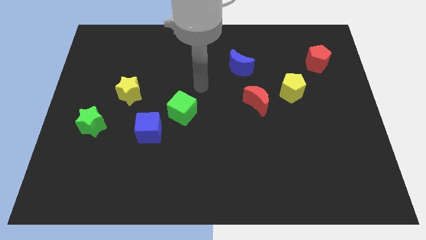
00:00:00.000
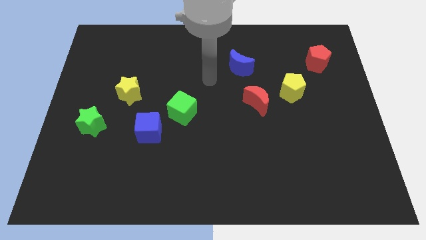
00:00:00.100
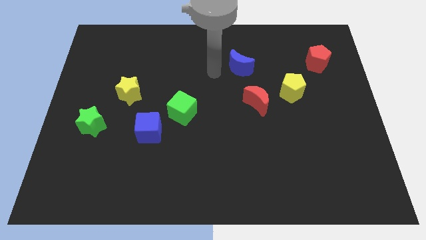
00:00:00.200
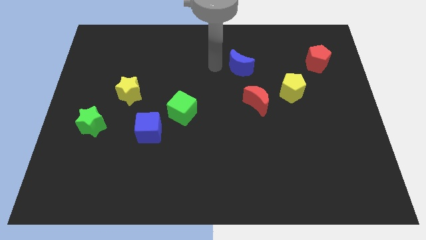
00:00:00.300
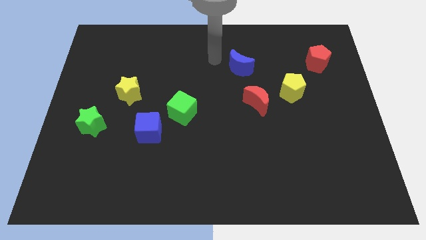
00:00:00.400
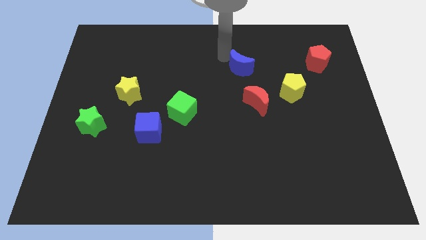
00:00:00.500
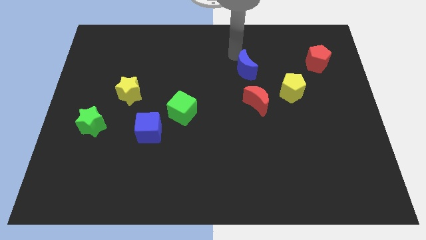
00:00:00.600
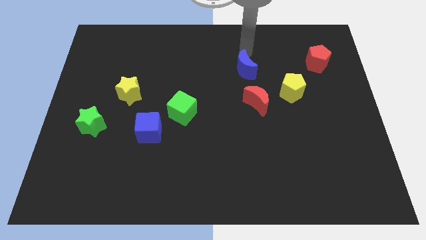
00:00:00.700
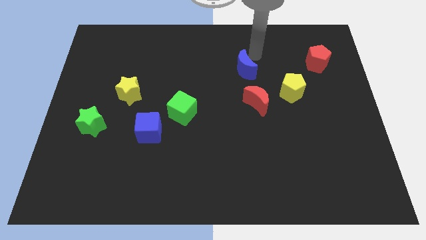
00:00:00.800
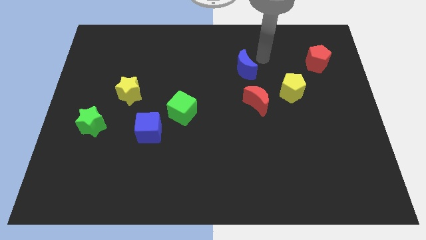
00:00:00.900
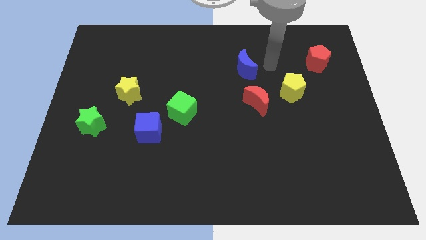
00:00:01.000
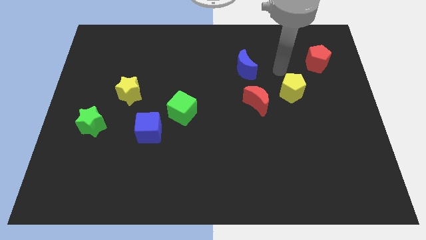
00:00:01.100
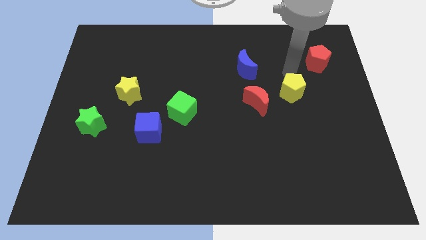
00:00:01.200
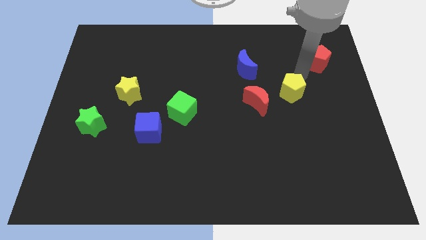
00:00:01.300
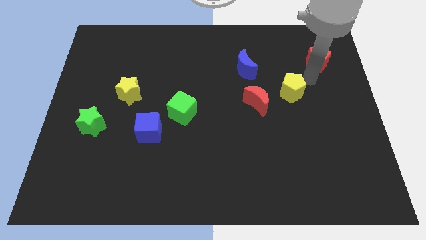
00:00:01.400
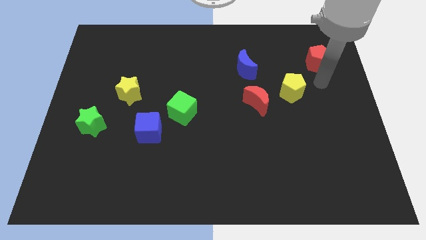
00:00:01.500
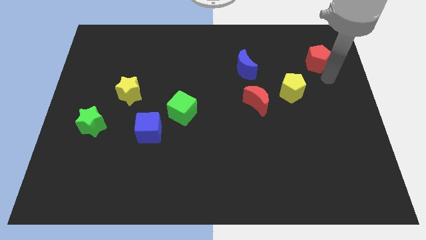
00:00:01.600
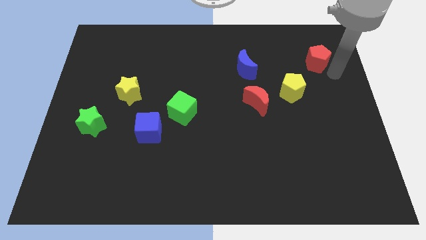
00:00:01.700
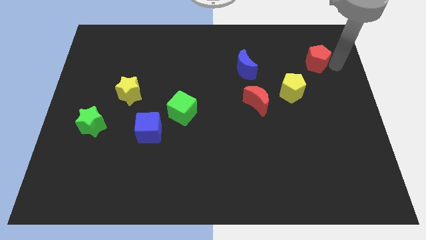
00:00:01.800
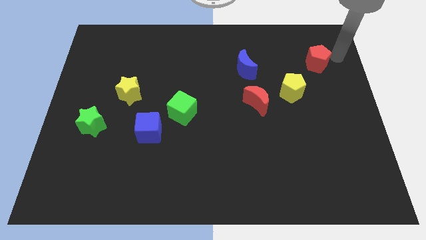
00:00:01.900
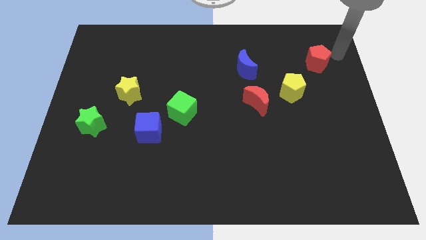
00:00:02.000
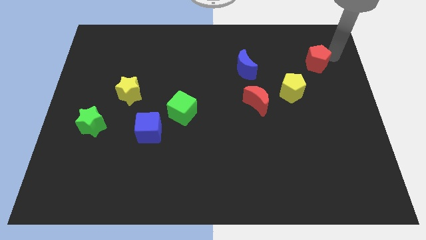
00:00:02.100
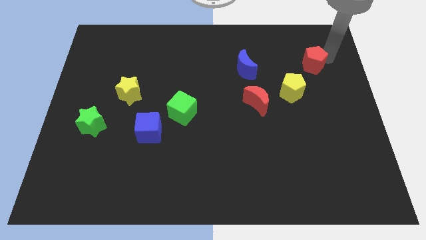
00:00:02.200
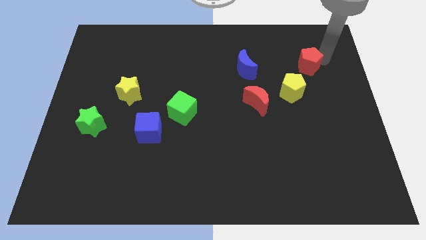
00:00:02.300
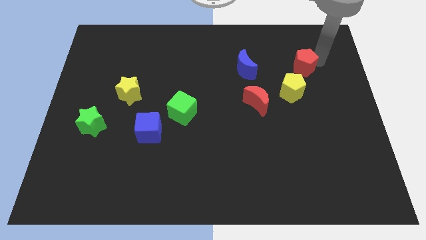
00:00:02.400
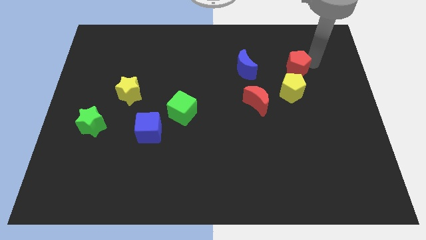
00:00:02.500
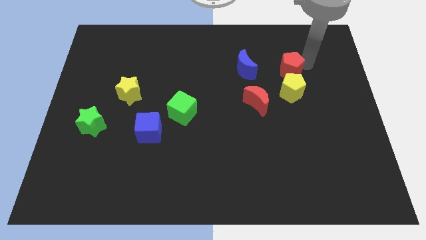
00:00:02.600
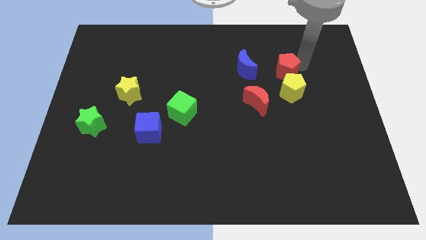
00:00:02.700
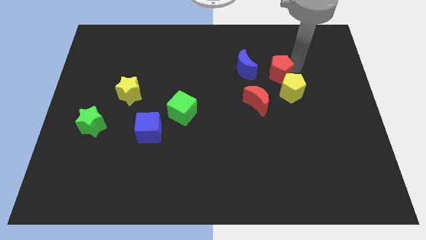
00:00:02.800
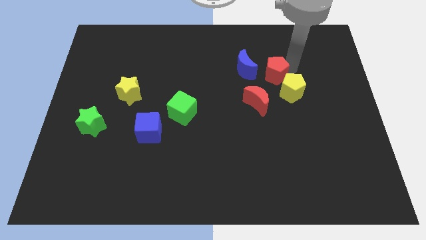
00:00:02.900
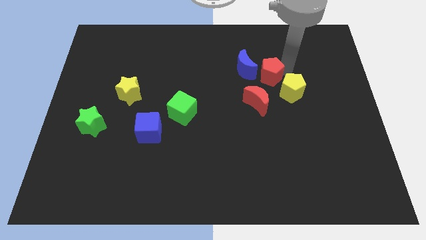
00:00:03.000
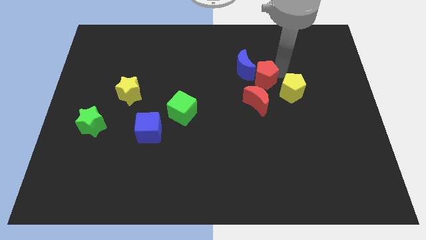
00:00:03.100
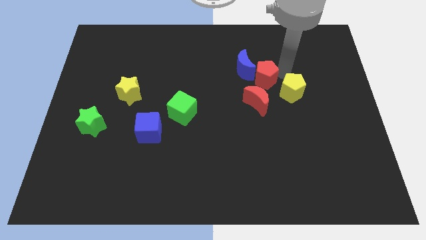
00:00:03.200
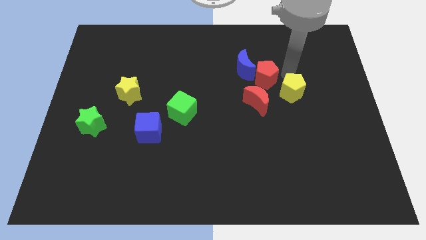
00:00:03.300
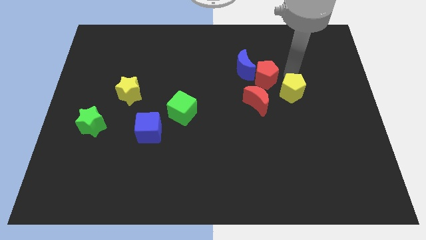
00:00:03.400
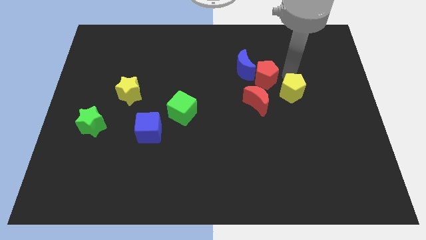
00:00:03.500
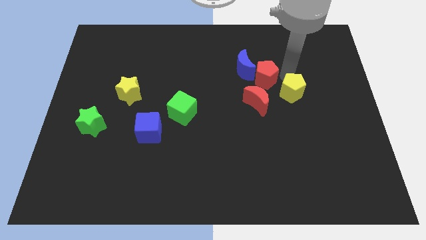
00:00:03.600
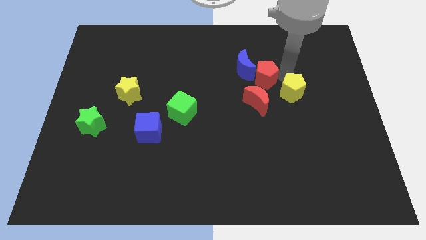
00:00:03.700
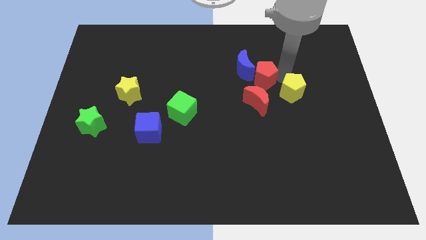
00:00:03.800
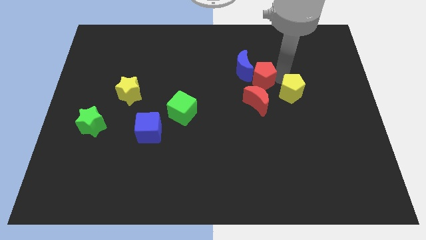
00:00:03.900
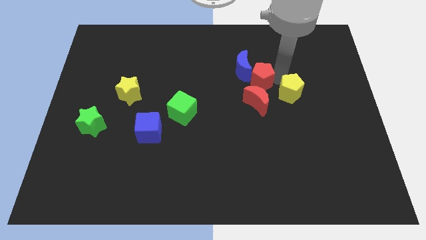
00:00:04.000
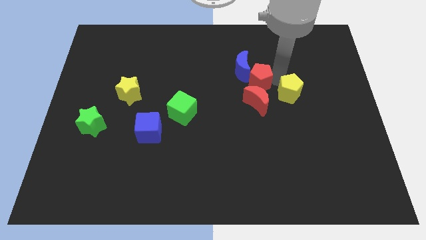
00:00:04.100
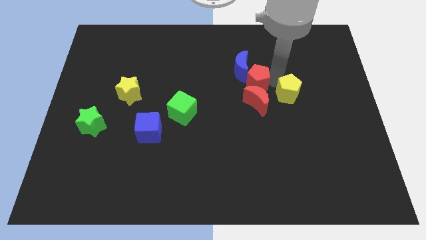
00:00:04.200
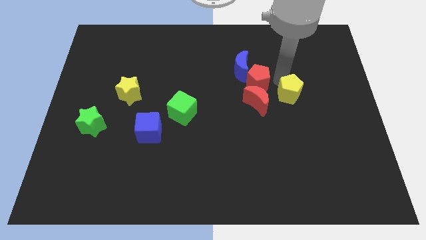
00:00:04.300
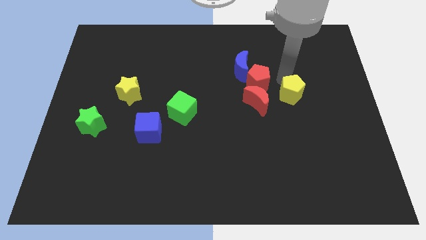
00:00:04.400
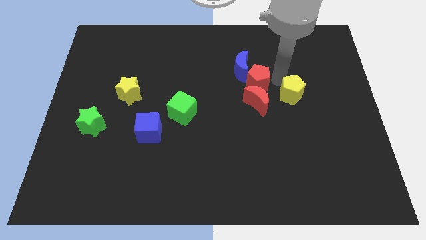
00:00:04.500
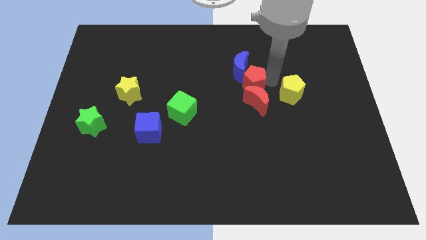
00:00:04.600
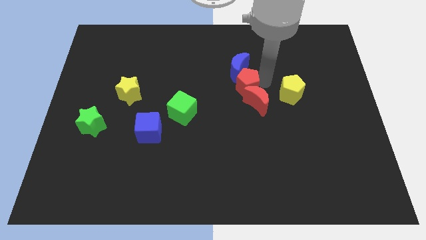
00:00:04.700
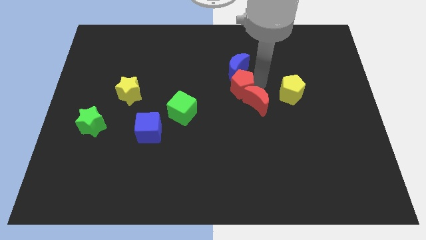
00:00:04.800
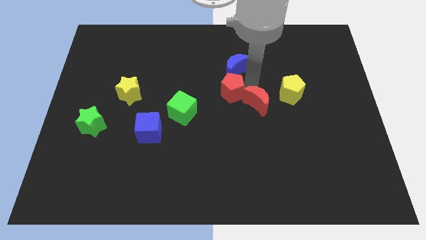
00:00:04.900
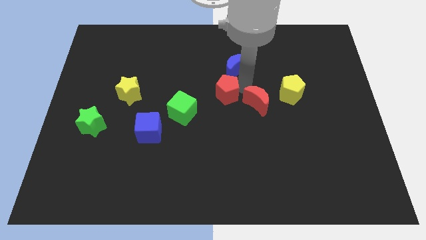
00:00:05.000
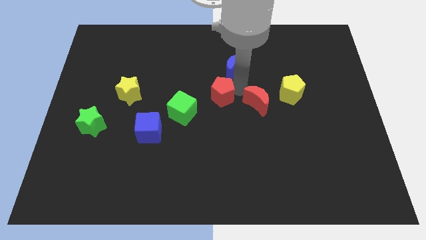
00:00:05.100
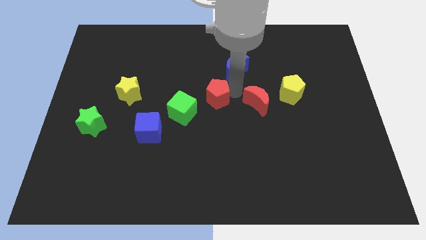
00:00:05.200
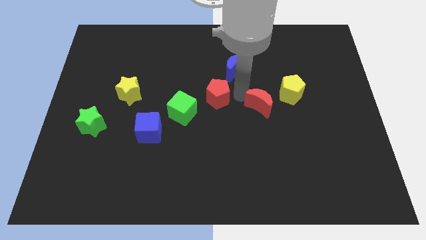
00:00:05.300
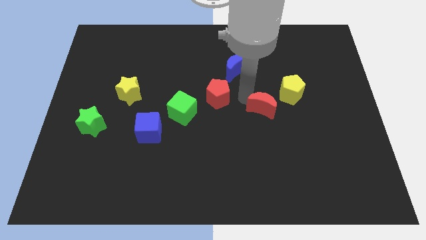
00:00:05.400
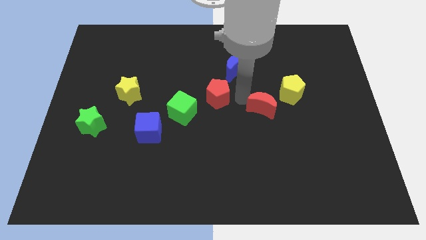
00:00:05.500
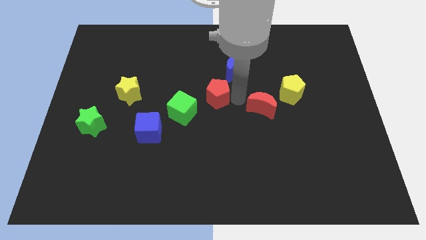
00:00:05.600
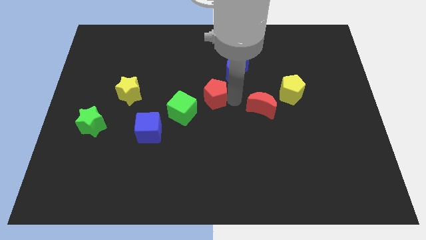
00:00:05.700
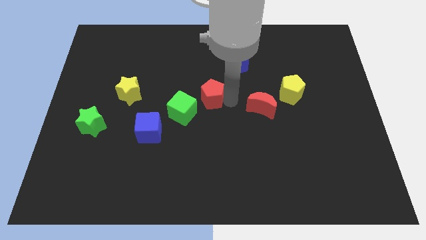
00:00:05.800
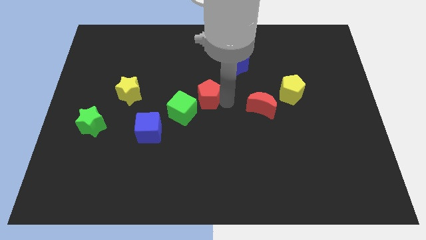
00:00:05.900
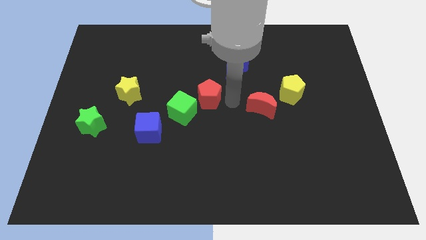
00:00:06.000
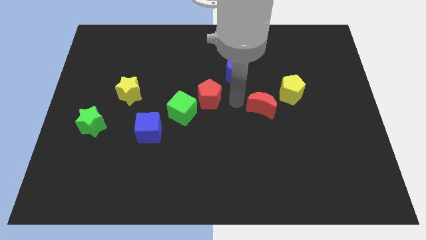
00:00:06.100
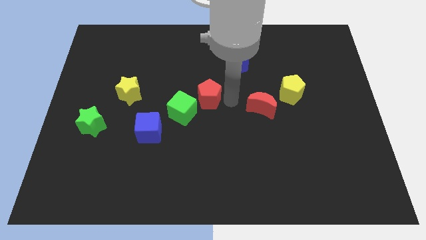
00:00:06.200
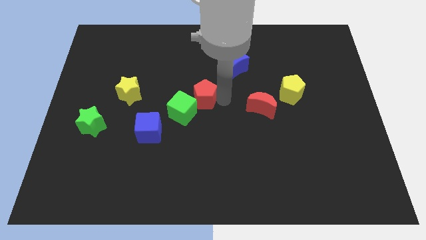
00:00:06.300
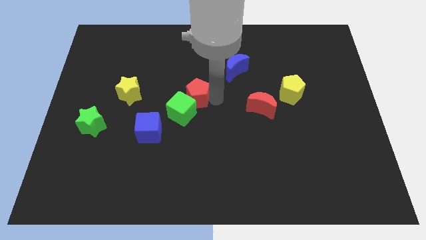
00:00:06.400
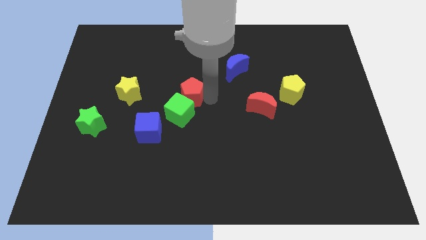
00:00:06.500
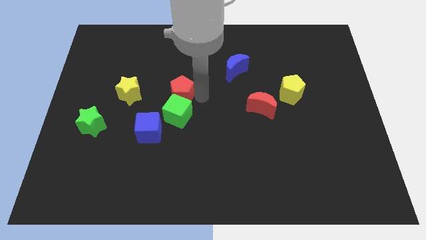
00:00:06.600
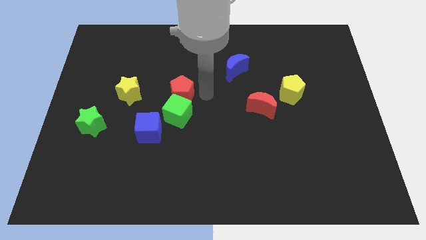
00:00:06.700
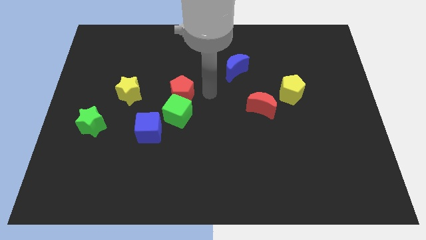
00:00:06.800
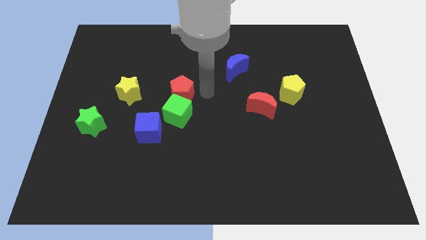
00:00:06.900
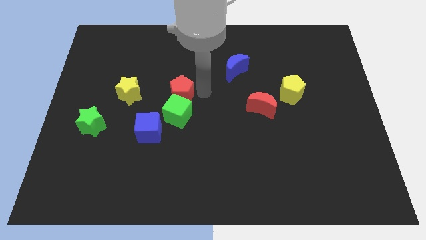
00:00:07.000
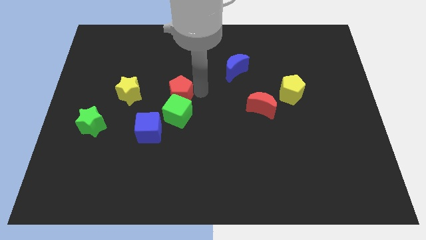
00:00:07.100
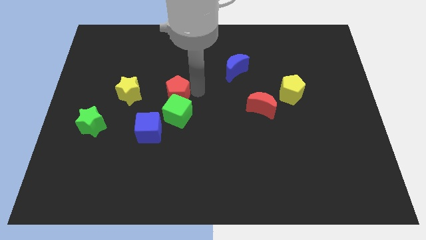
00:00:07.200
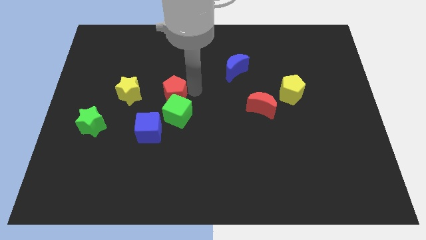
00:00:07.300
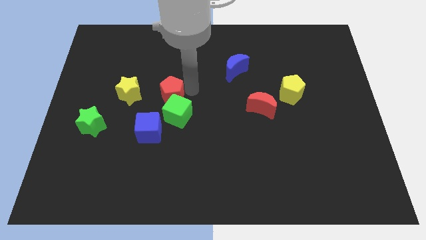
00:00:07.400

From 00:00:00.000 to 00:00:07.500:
slide the red pentagon above the blue cube
